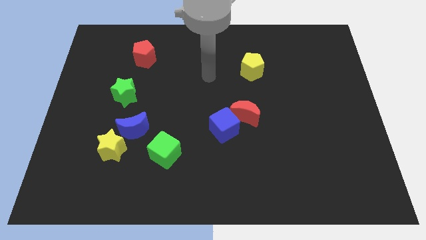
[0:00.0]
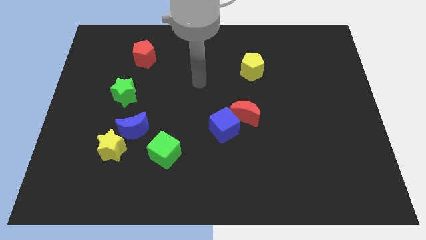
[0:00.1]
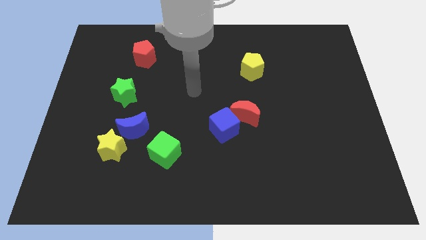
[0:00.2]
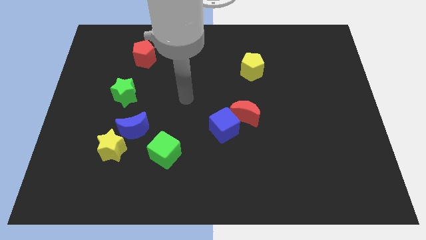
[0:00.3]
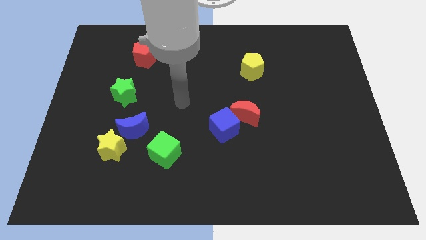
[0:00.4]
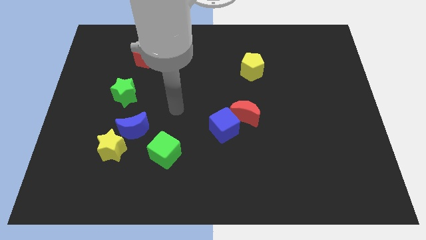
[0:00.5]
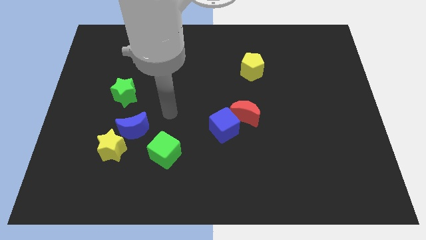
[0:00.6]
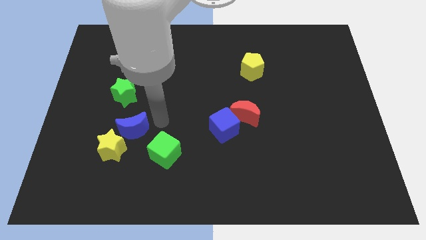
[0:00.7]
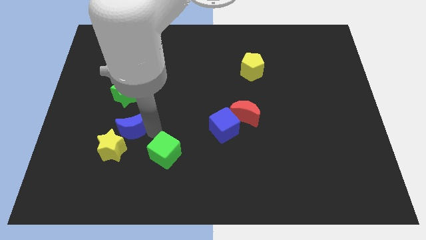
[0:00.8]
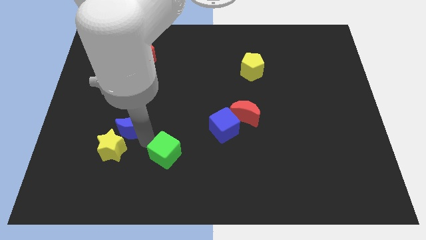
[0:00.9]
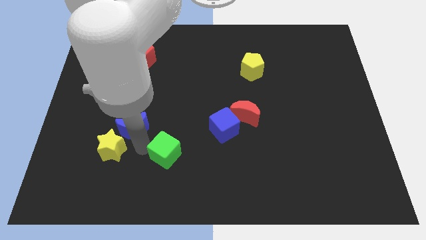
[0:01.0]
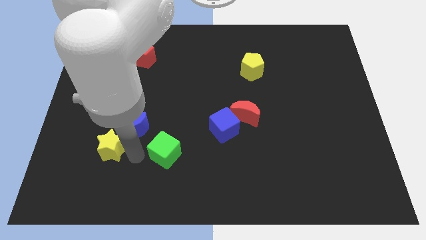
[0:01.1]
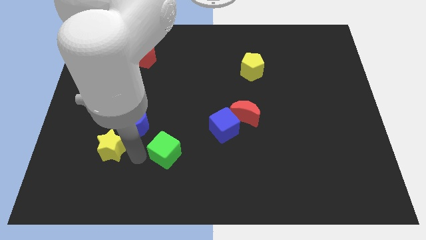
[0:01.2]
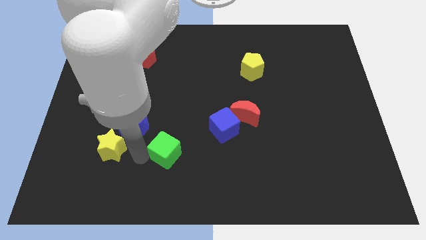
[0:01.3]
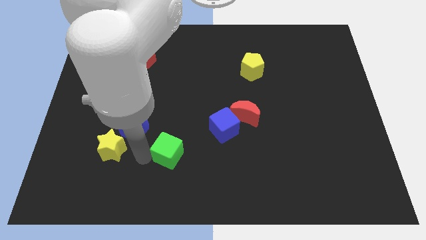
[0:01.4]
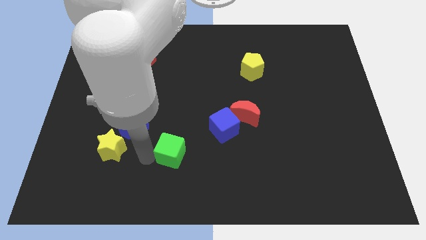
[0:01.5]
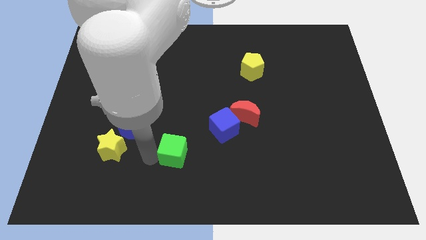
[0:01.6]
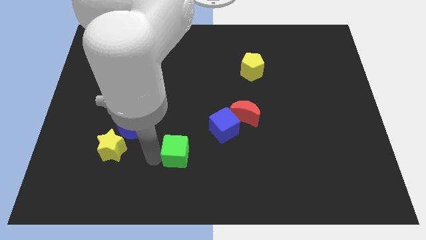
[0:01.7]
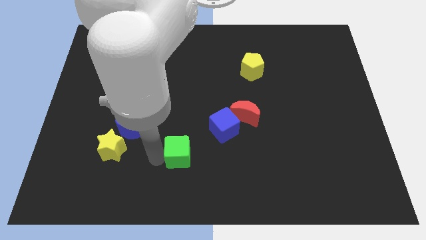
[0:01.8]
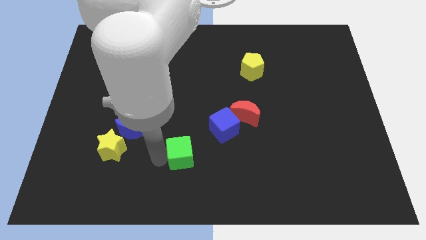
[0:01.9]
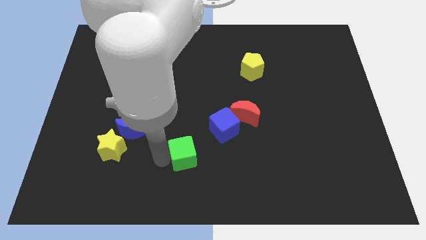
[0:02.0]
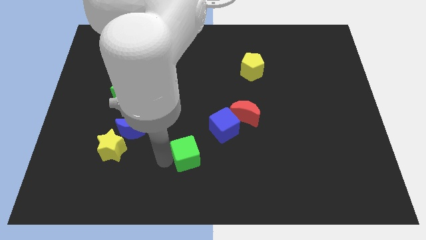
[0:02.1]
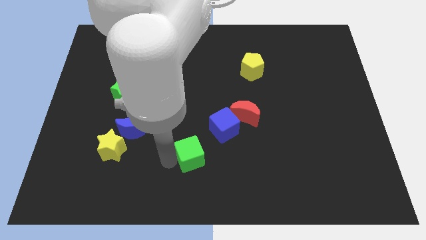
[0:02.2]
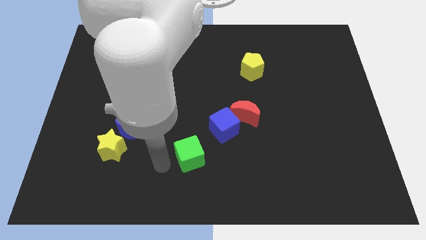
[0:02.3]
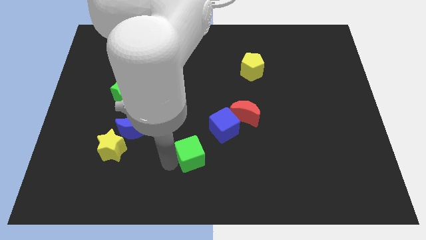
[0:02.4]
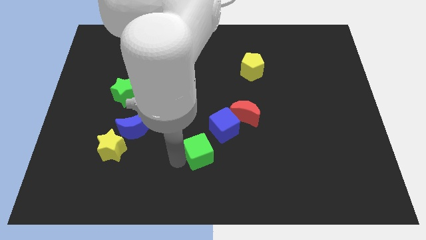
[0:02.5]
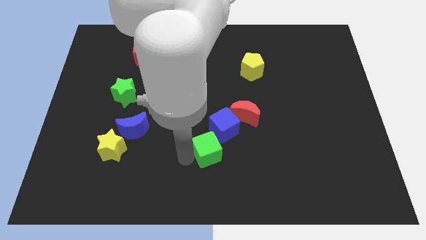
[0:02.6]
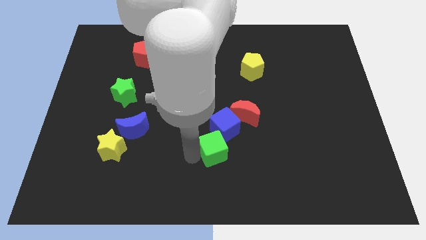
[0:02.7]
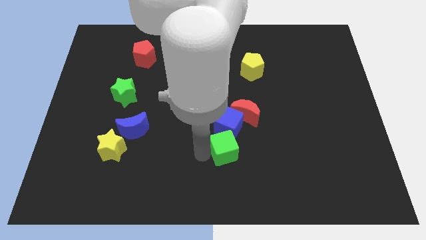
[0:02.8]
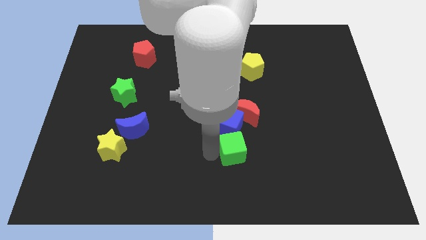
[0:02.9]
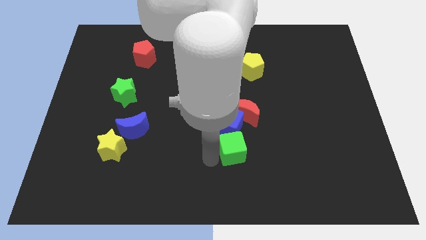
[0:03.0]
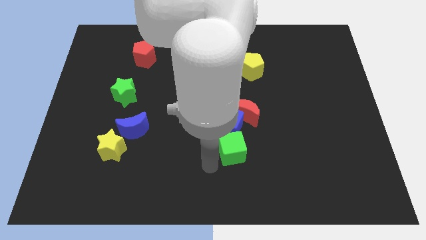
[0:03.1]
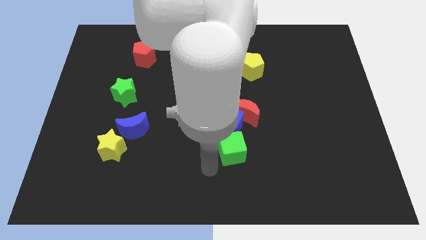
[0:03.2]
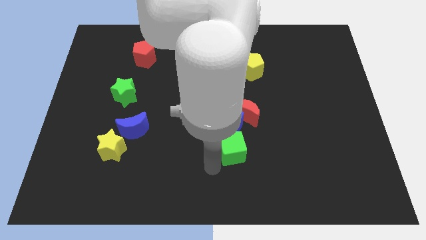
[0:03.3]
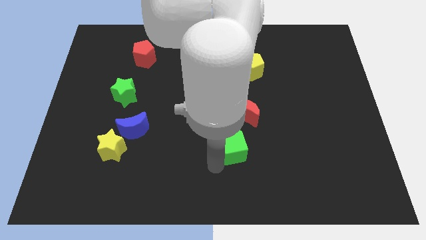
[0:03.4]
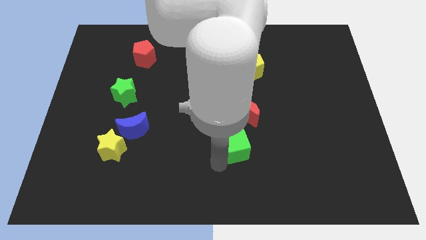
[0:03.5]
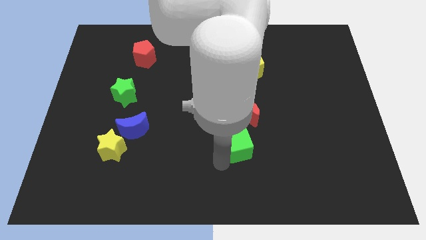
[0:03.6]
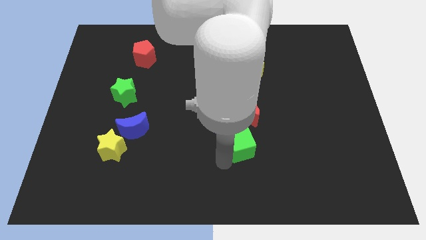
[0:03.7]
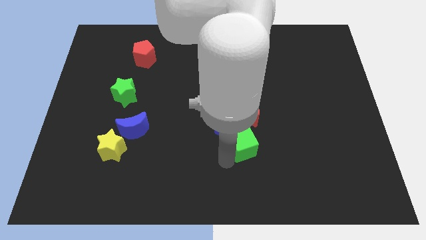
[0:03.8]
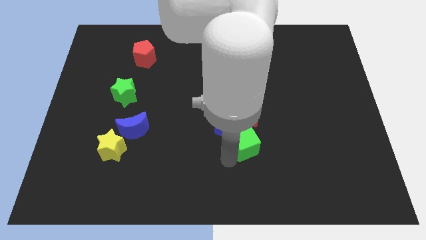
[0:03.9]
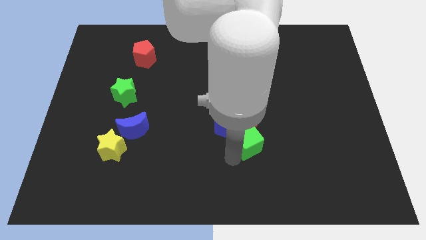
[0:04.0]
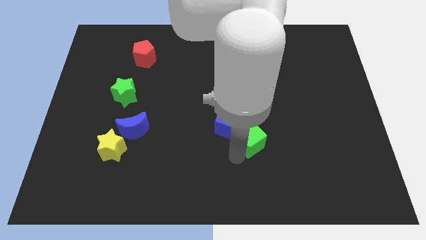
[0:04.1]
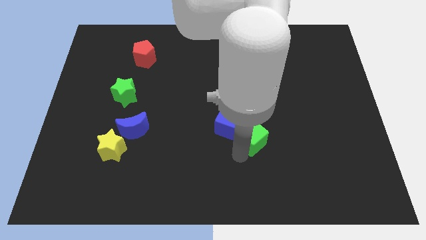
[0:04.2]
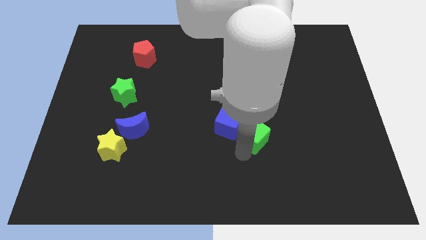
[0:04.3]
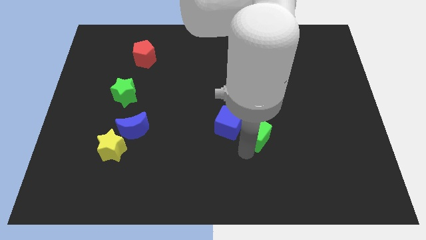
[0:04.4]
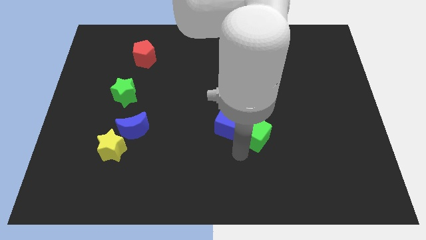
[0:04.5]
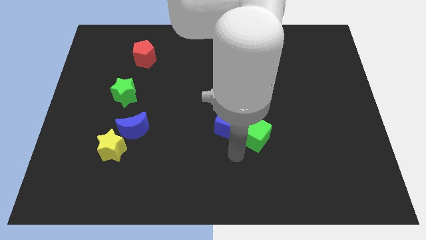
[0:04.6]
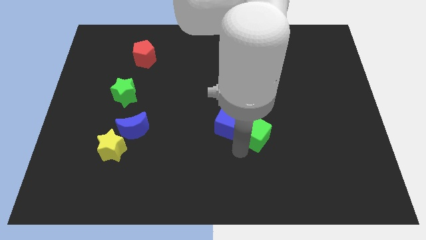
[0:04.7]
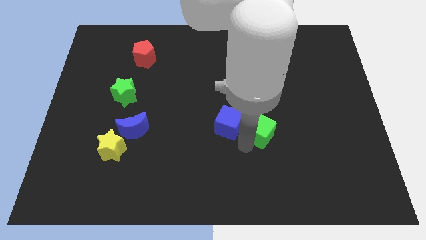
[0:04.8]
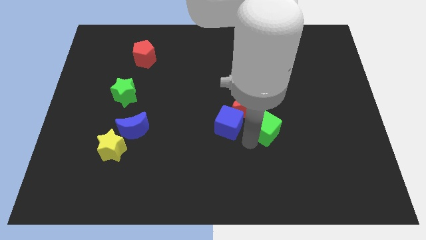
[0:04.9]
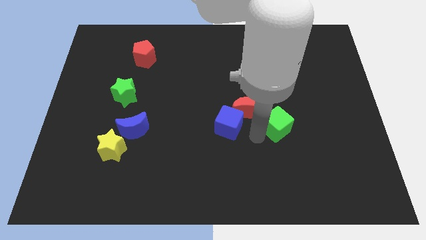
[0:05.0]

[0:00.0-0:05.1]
slide the green cube just right of the red moon

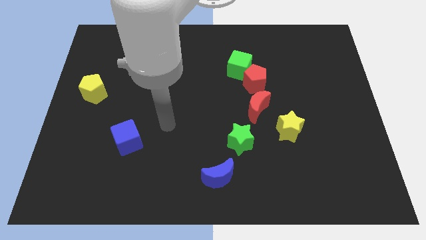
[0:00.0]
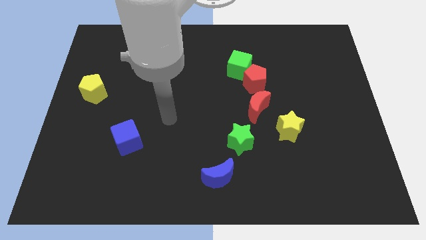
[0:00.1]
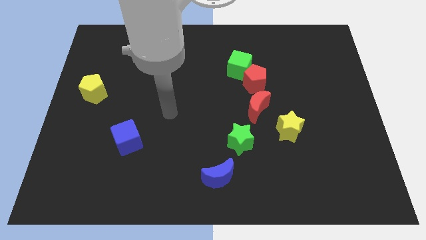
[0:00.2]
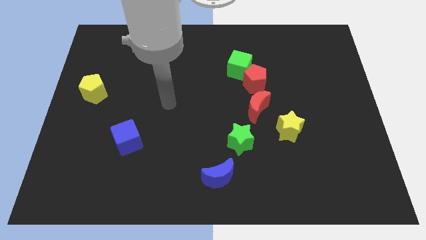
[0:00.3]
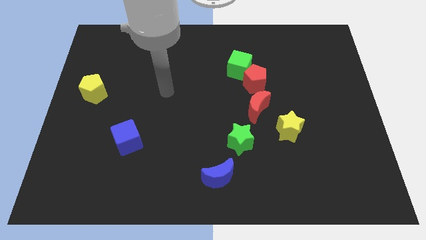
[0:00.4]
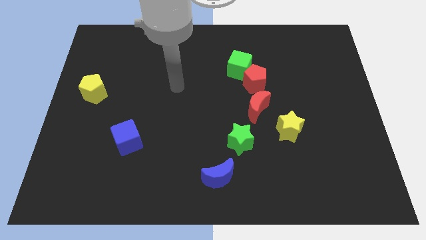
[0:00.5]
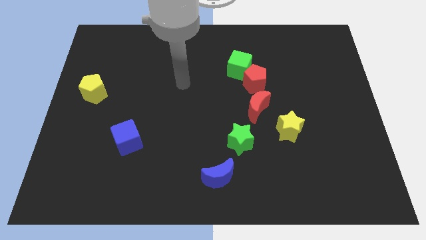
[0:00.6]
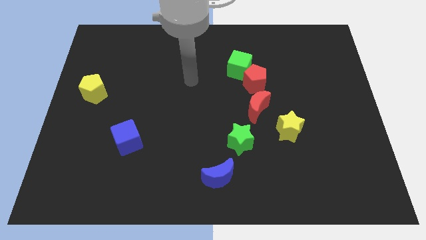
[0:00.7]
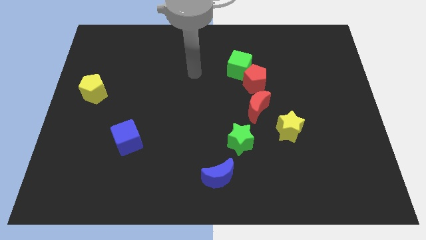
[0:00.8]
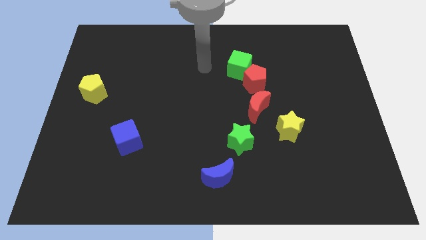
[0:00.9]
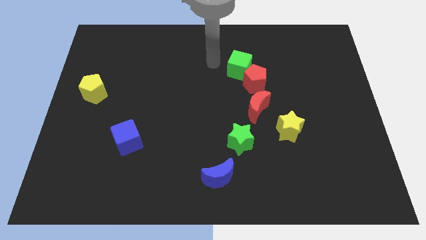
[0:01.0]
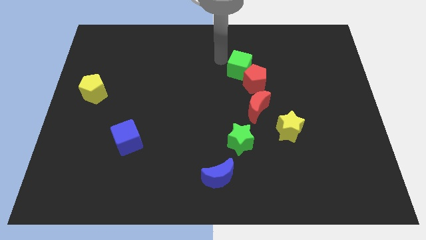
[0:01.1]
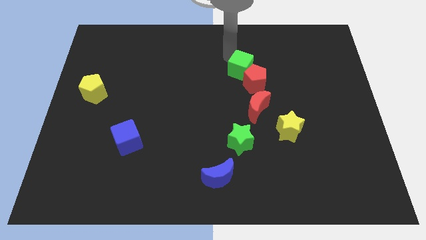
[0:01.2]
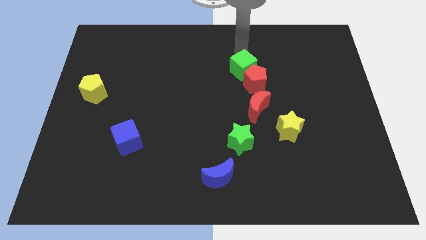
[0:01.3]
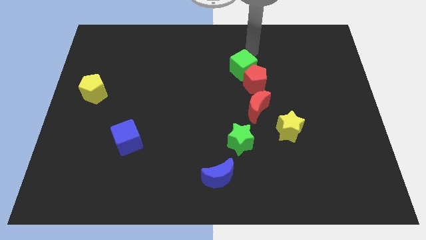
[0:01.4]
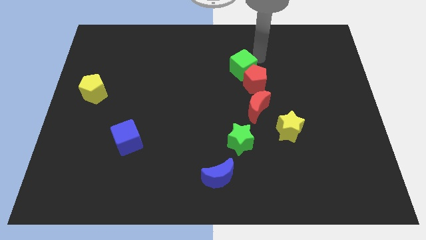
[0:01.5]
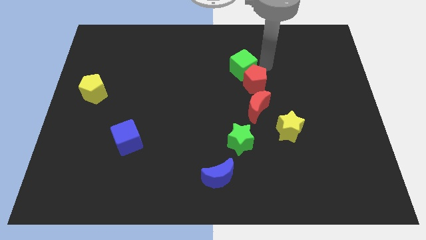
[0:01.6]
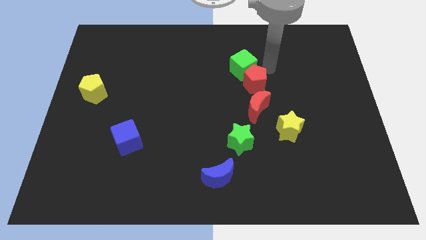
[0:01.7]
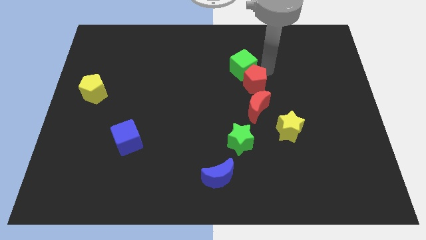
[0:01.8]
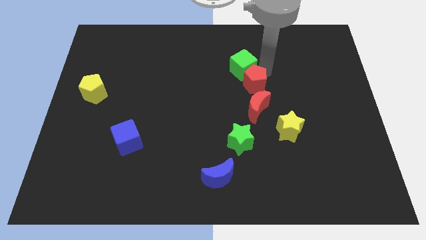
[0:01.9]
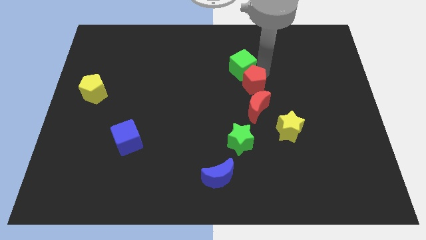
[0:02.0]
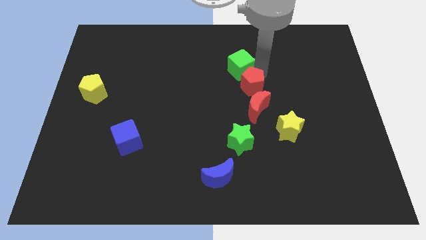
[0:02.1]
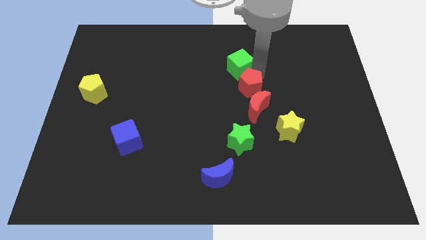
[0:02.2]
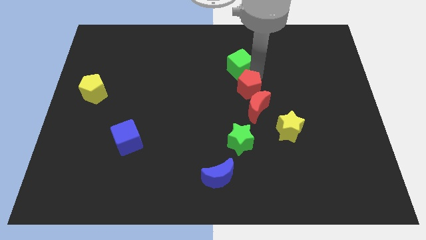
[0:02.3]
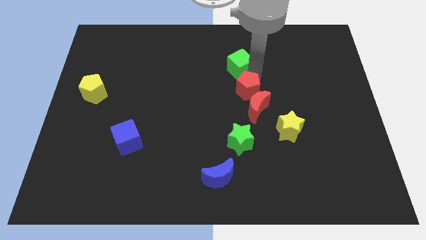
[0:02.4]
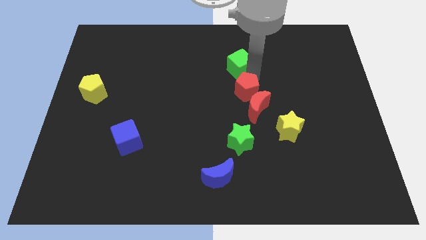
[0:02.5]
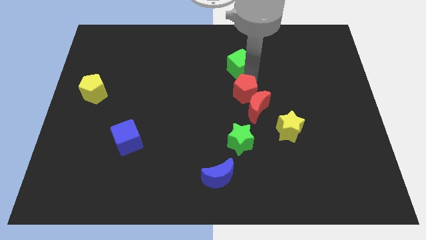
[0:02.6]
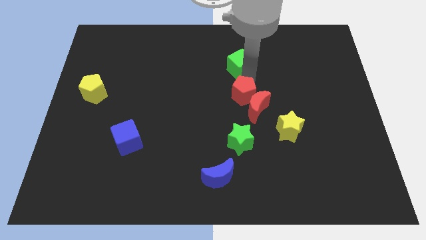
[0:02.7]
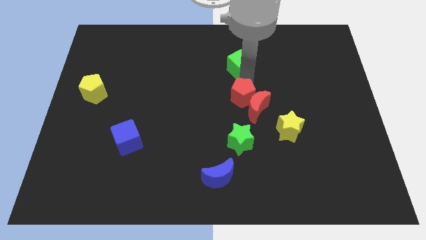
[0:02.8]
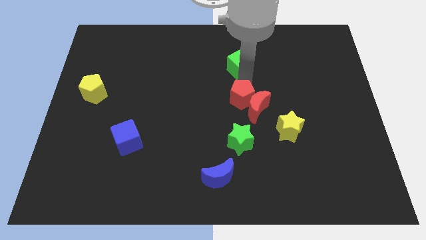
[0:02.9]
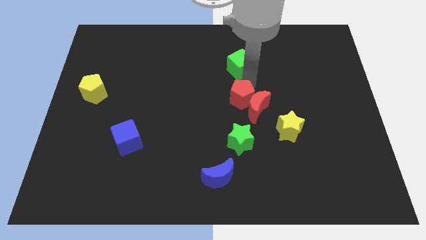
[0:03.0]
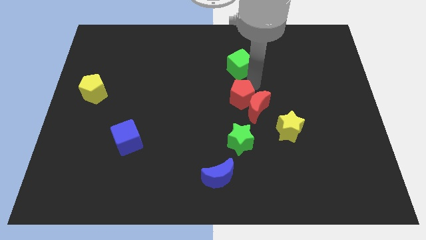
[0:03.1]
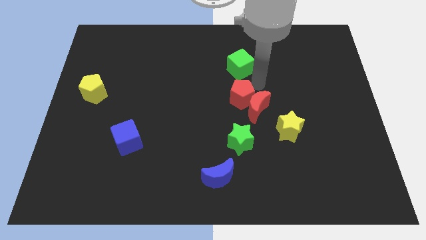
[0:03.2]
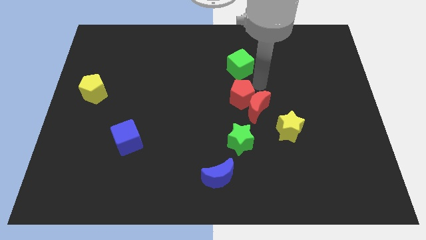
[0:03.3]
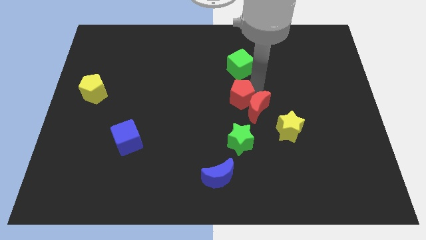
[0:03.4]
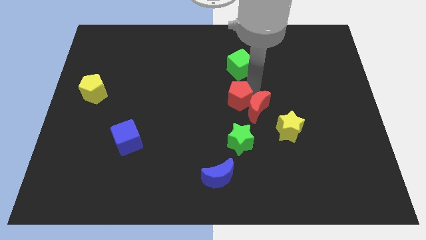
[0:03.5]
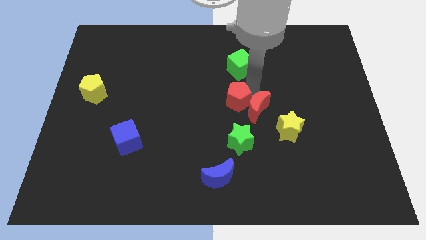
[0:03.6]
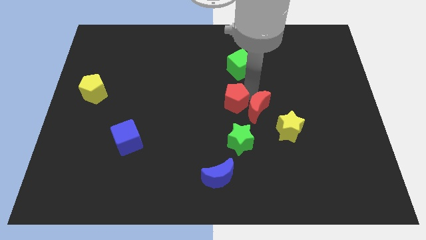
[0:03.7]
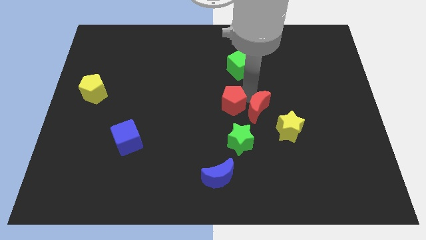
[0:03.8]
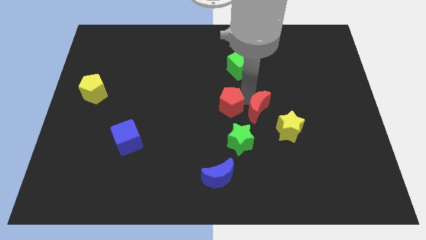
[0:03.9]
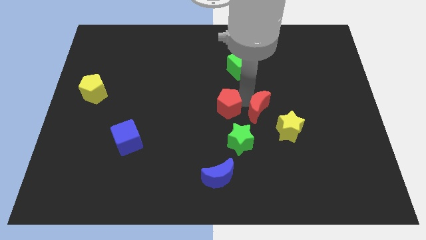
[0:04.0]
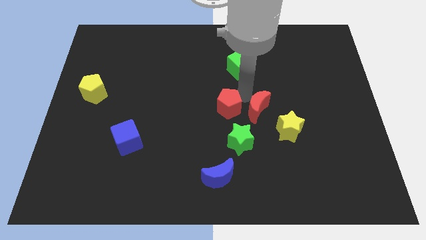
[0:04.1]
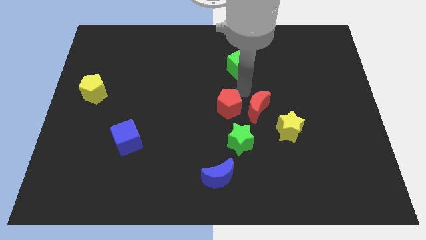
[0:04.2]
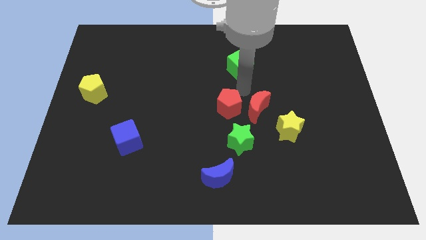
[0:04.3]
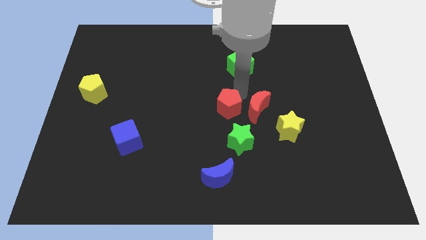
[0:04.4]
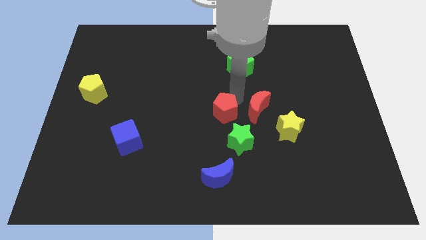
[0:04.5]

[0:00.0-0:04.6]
put the red pentagon to the top left of the green star
